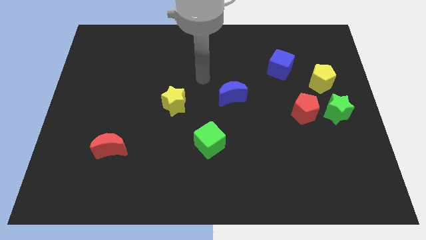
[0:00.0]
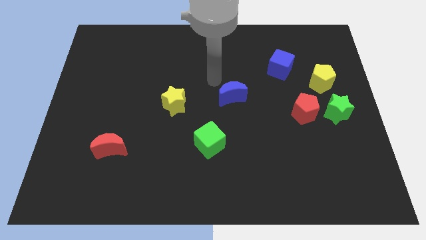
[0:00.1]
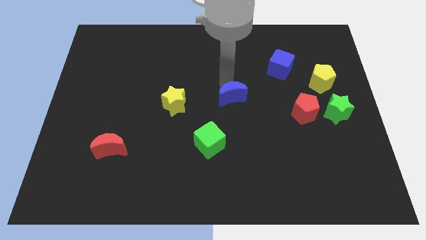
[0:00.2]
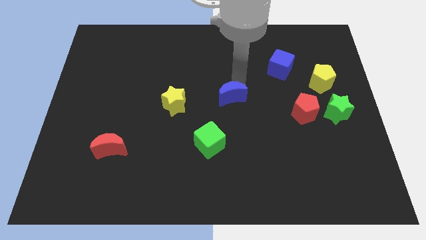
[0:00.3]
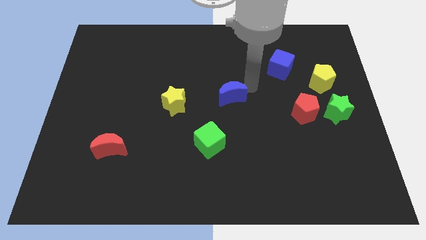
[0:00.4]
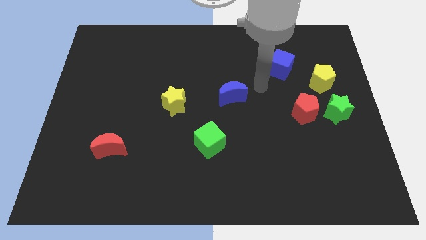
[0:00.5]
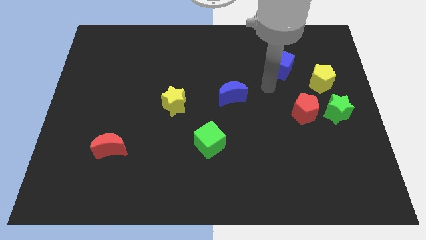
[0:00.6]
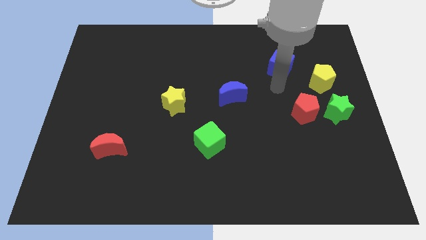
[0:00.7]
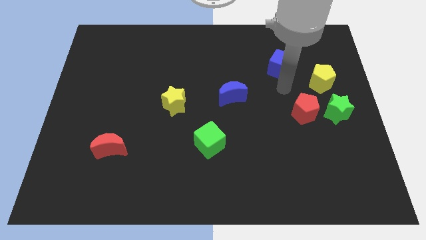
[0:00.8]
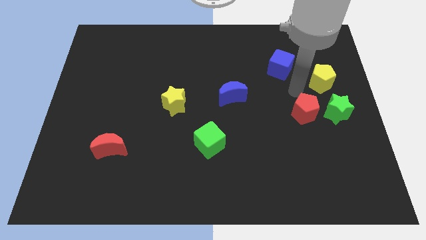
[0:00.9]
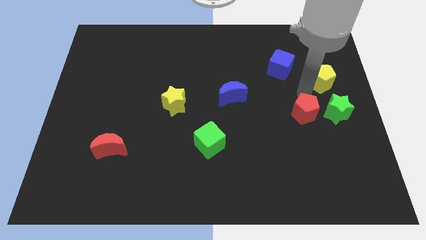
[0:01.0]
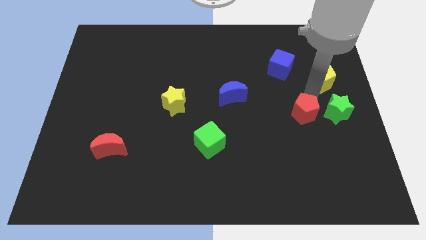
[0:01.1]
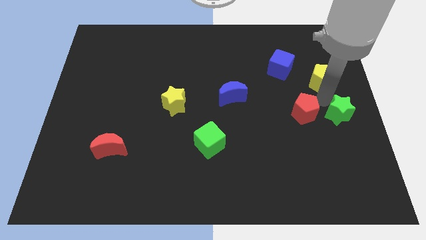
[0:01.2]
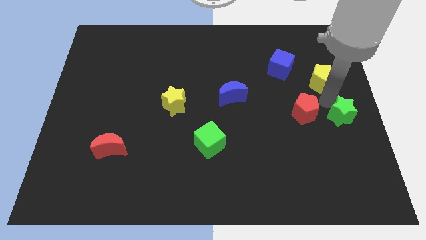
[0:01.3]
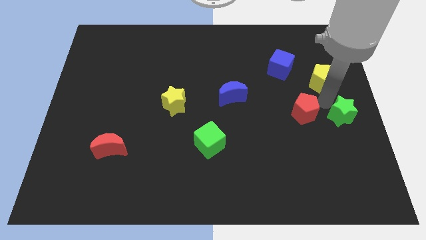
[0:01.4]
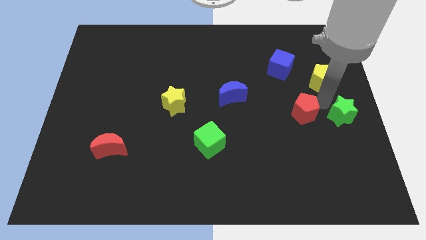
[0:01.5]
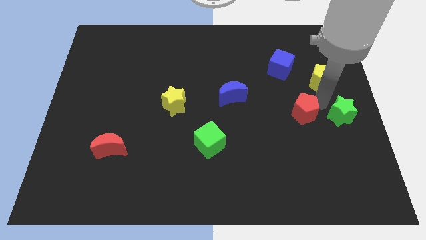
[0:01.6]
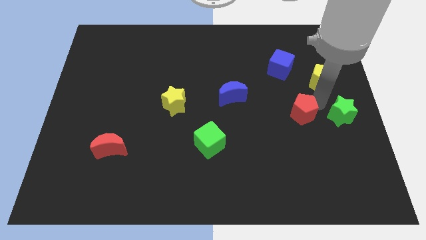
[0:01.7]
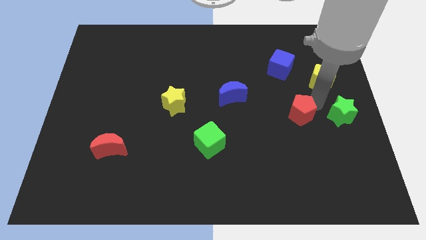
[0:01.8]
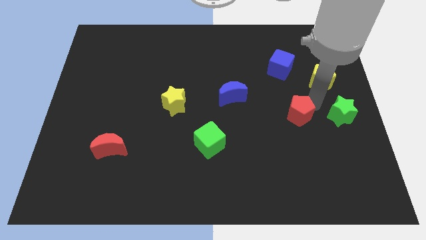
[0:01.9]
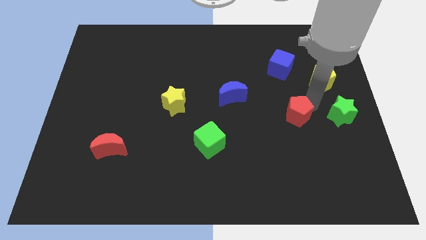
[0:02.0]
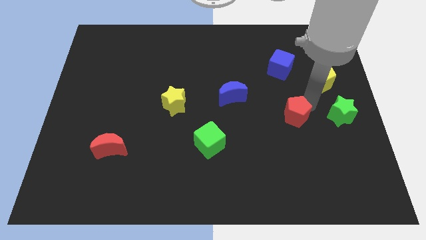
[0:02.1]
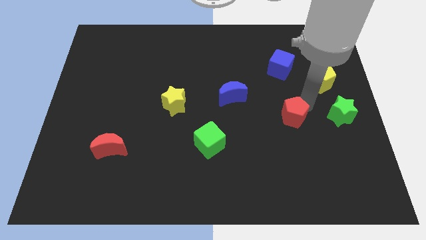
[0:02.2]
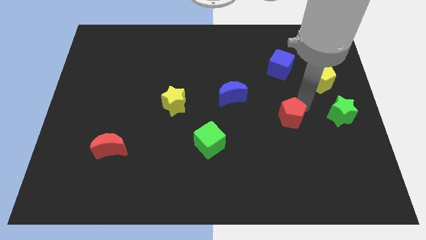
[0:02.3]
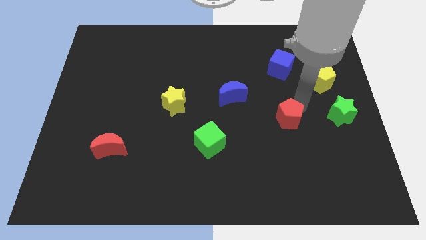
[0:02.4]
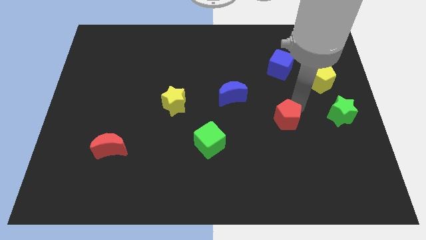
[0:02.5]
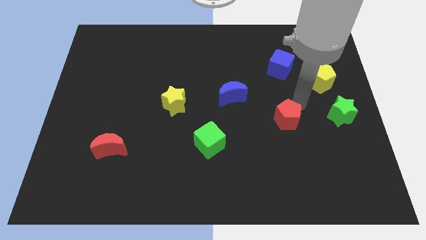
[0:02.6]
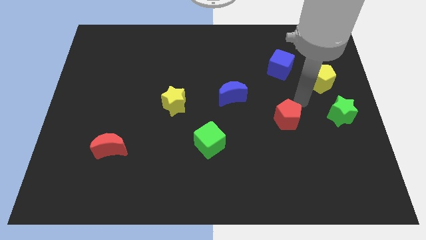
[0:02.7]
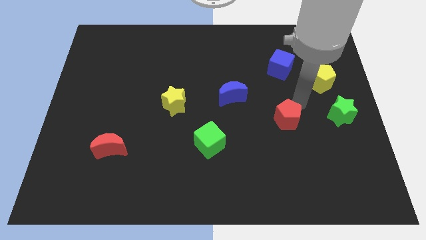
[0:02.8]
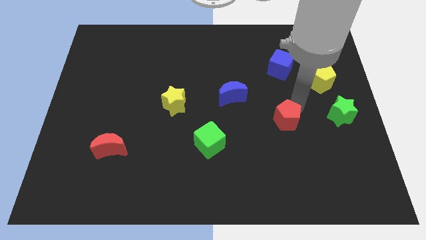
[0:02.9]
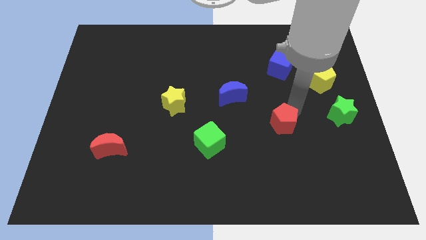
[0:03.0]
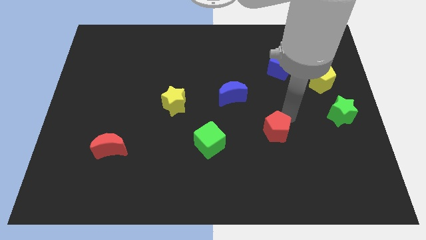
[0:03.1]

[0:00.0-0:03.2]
slightly move the red pentagon downwards and then to the left

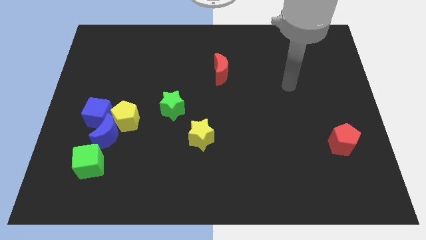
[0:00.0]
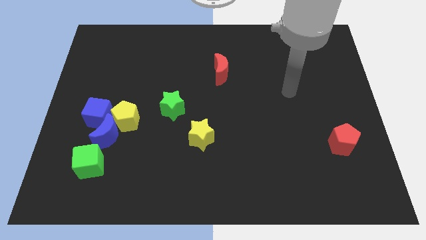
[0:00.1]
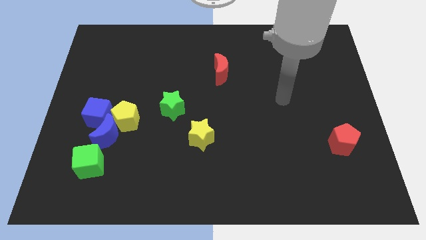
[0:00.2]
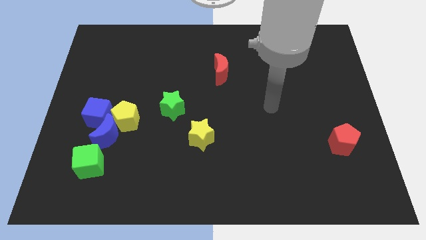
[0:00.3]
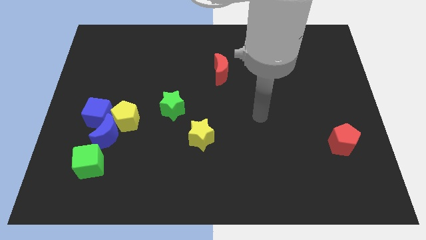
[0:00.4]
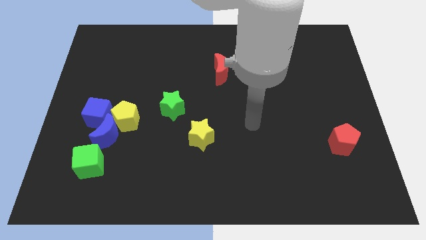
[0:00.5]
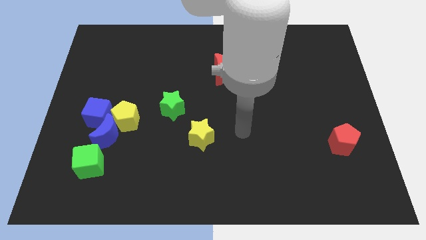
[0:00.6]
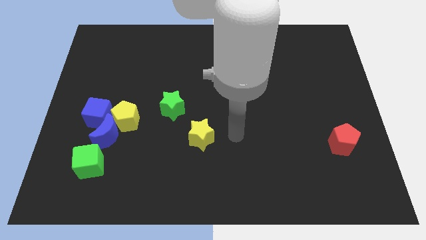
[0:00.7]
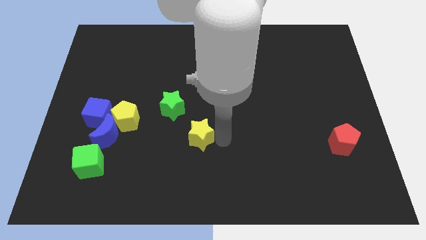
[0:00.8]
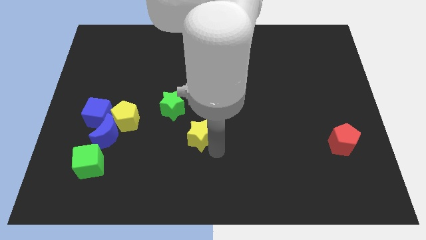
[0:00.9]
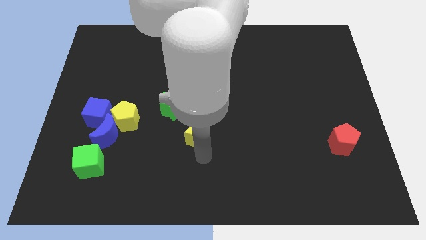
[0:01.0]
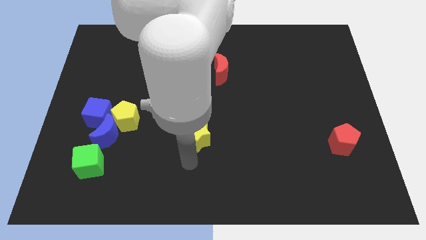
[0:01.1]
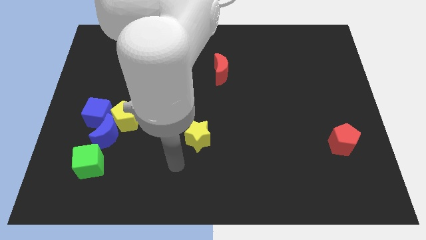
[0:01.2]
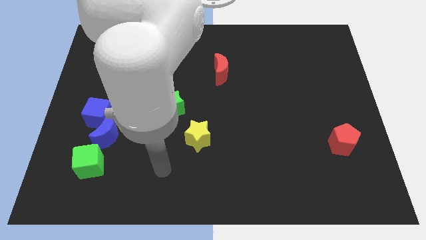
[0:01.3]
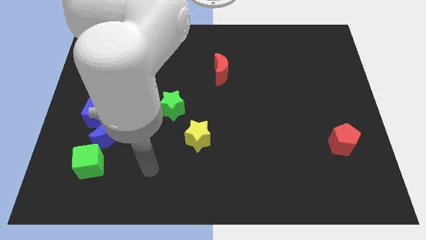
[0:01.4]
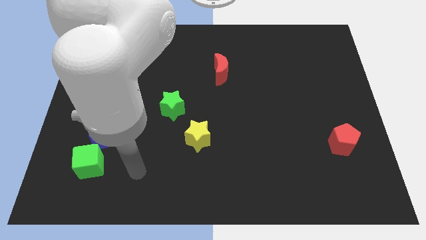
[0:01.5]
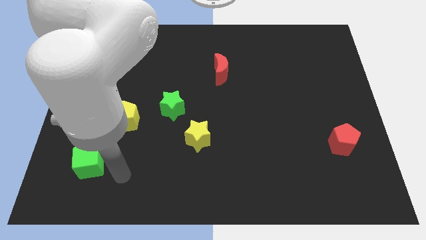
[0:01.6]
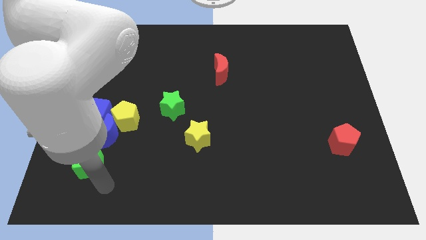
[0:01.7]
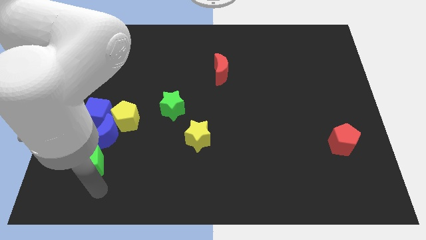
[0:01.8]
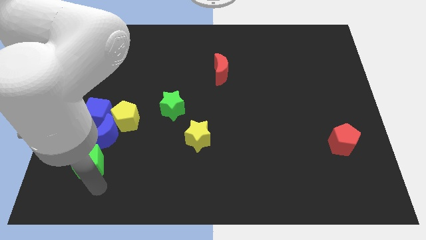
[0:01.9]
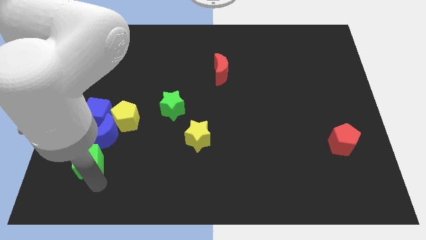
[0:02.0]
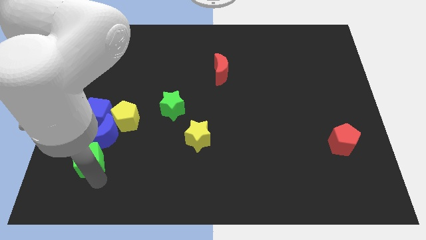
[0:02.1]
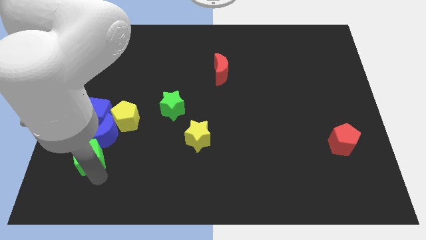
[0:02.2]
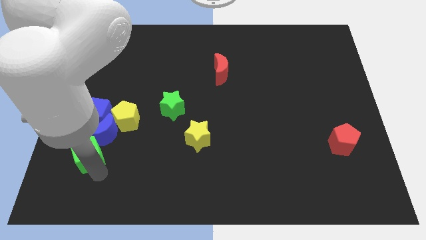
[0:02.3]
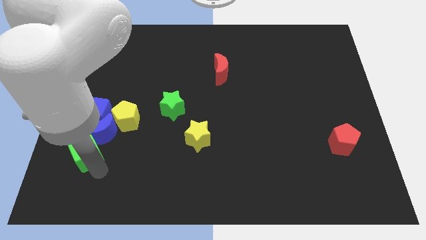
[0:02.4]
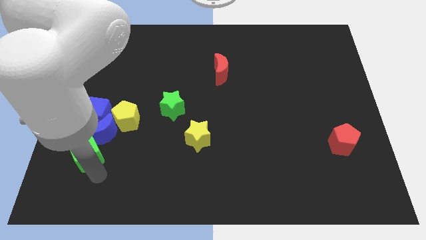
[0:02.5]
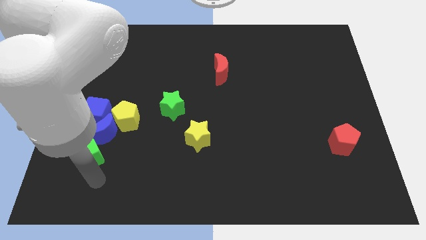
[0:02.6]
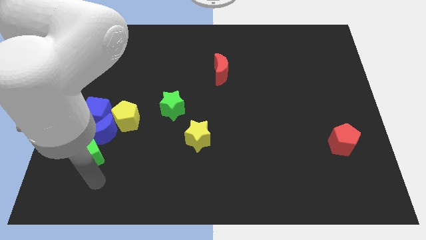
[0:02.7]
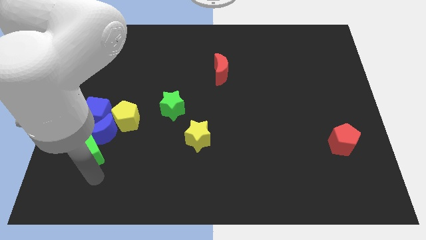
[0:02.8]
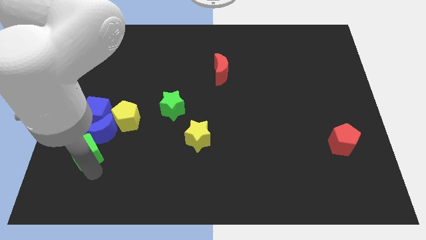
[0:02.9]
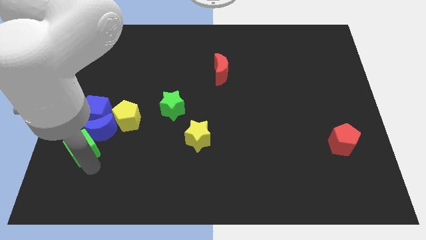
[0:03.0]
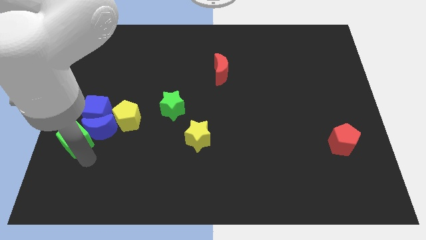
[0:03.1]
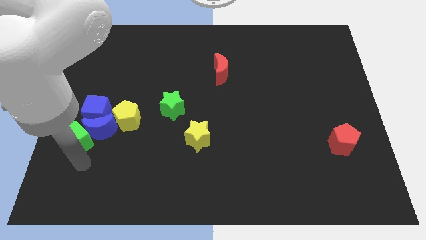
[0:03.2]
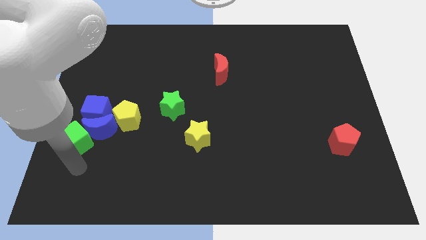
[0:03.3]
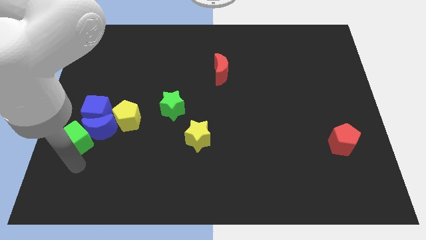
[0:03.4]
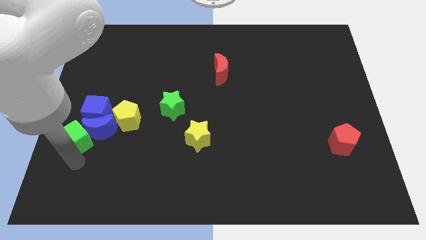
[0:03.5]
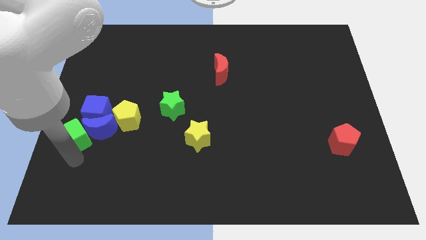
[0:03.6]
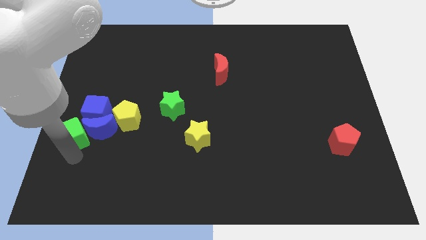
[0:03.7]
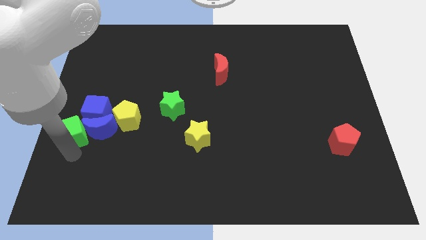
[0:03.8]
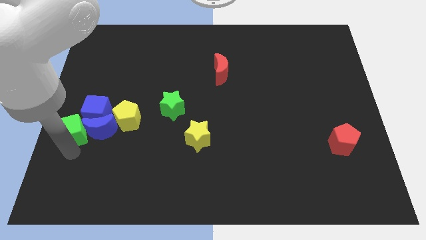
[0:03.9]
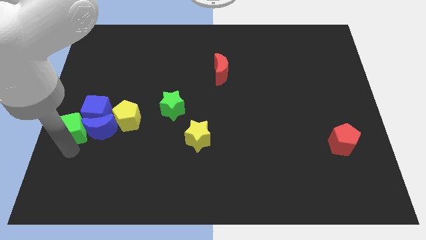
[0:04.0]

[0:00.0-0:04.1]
move the green cube slightly up

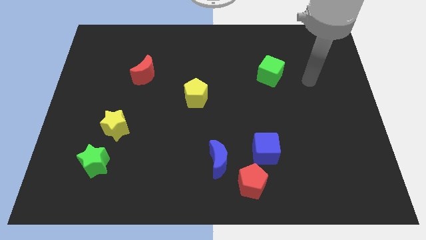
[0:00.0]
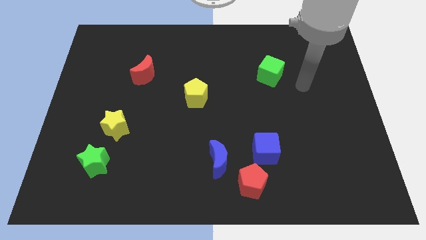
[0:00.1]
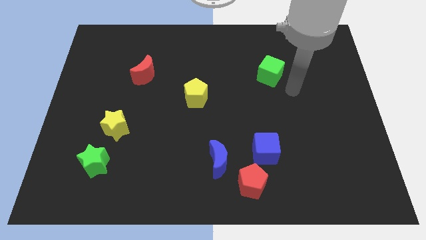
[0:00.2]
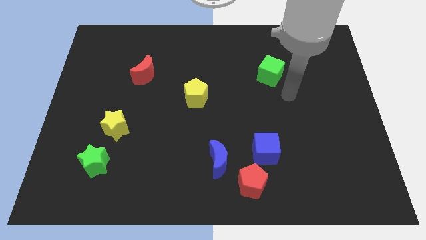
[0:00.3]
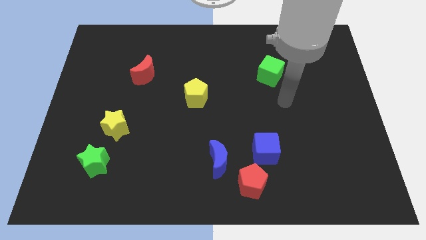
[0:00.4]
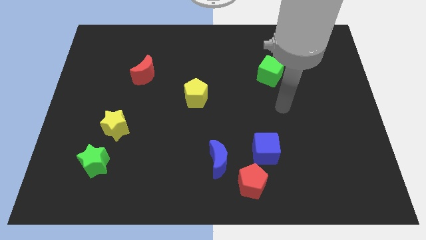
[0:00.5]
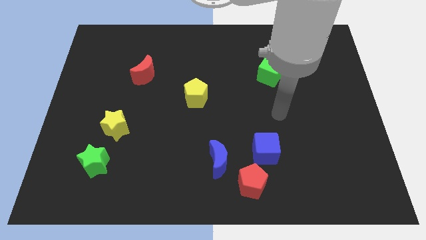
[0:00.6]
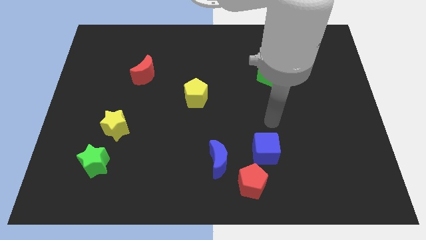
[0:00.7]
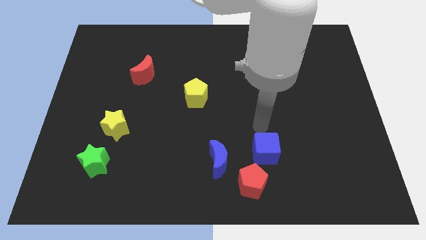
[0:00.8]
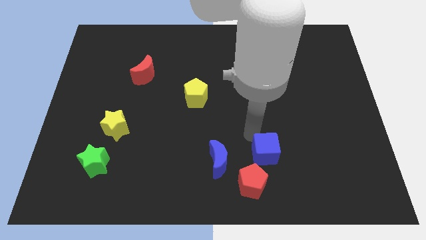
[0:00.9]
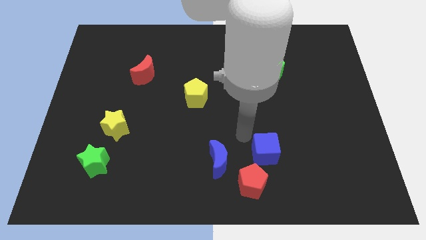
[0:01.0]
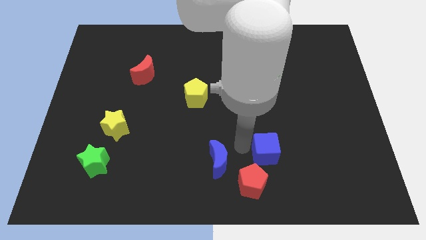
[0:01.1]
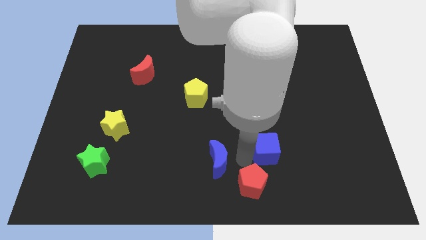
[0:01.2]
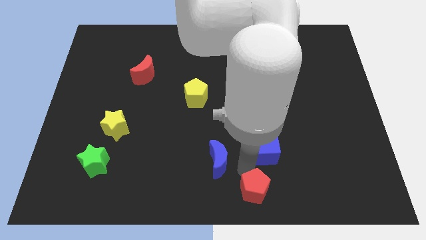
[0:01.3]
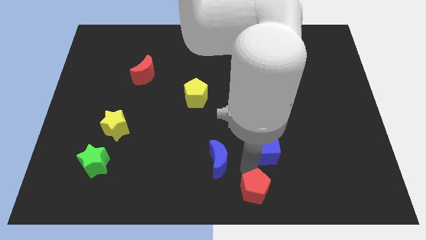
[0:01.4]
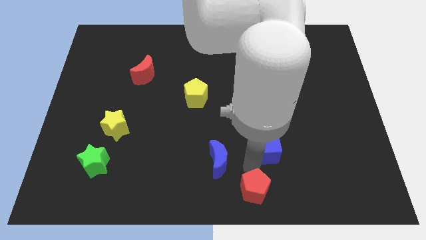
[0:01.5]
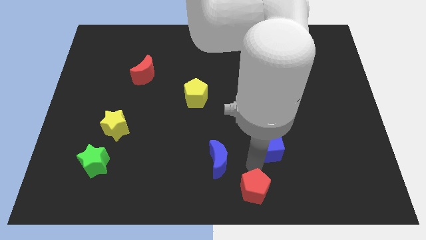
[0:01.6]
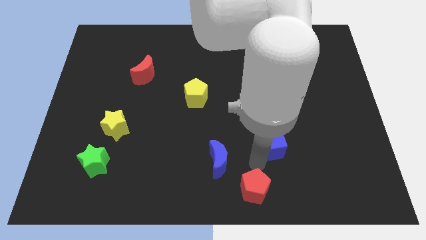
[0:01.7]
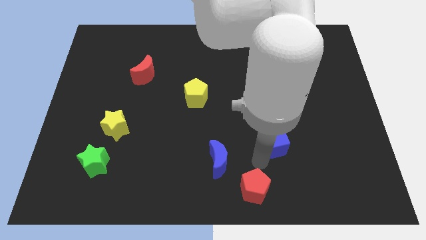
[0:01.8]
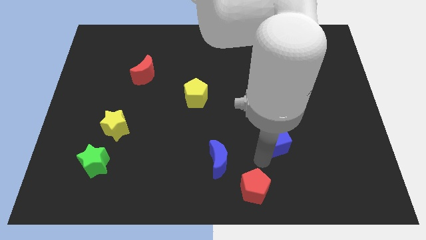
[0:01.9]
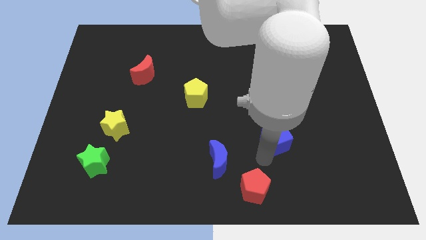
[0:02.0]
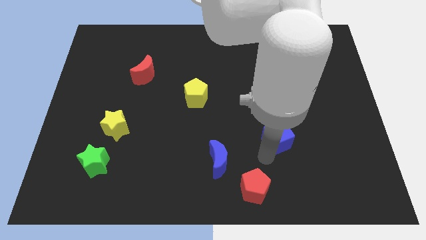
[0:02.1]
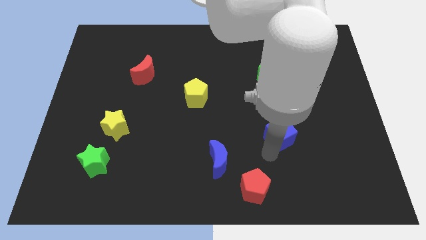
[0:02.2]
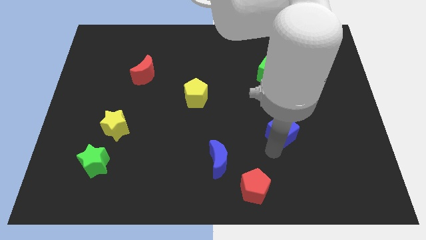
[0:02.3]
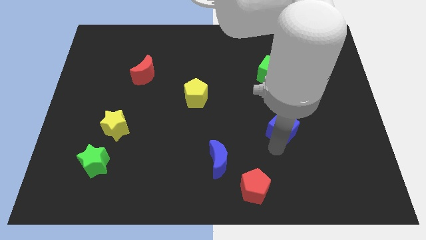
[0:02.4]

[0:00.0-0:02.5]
slide the blue cube a little bit upwards and to the right diagonally
